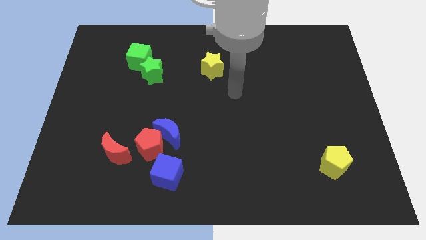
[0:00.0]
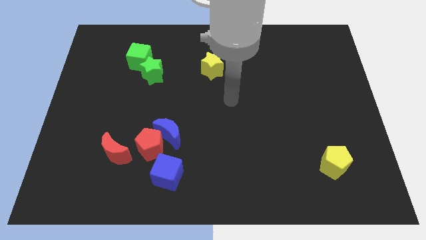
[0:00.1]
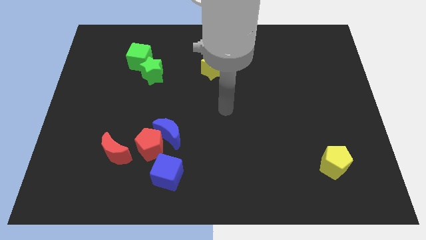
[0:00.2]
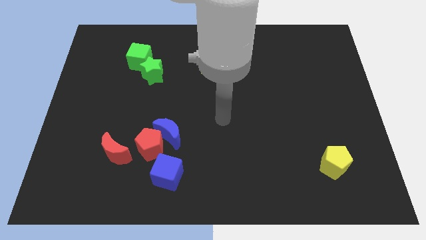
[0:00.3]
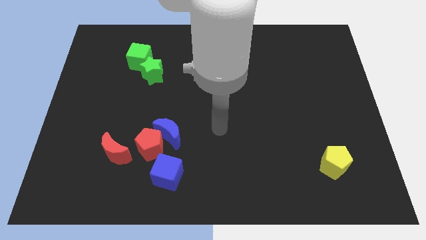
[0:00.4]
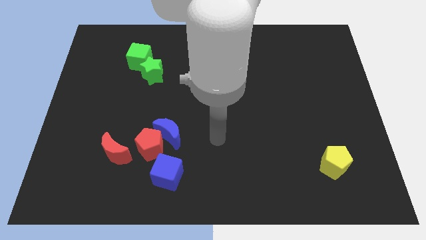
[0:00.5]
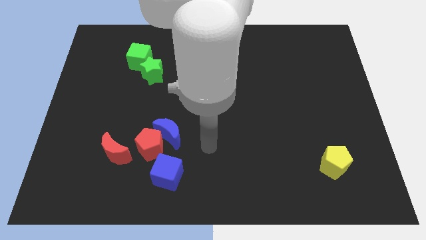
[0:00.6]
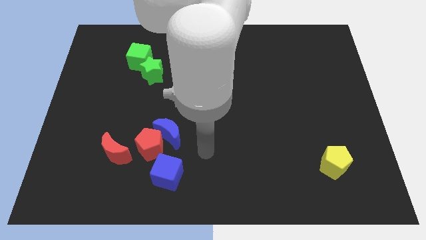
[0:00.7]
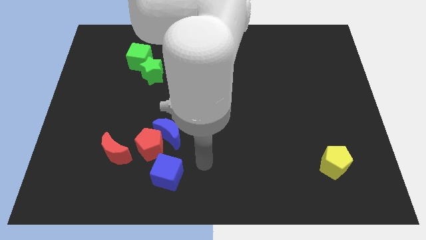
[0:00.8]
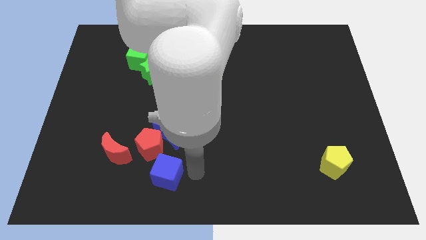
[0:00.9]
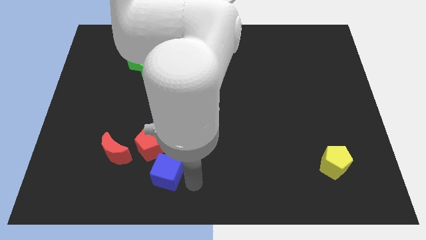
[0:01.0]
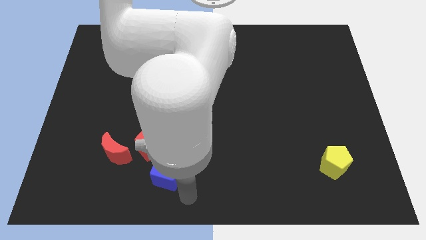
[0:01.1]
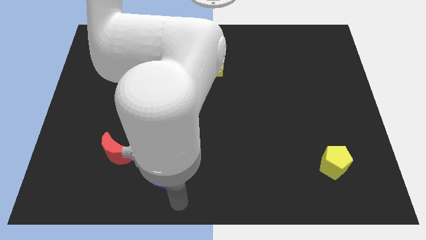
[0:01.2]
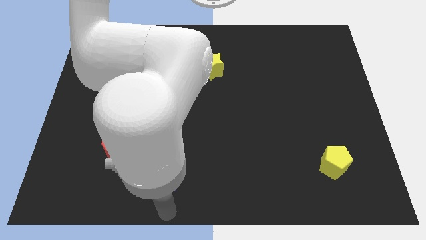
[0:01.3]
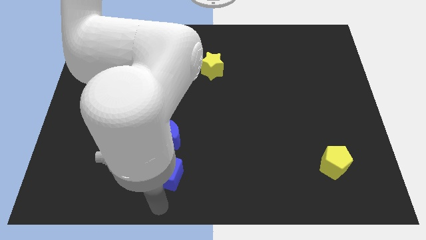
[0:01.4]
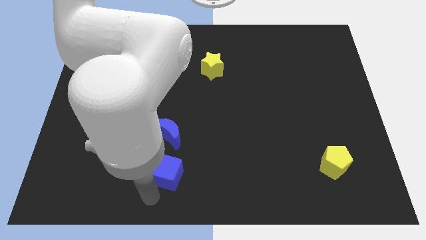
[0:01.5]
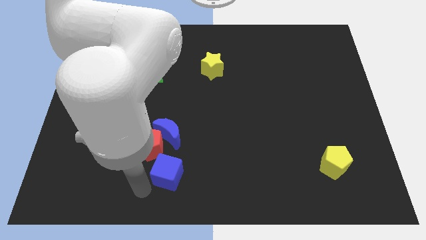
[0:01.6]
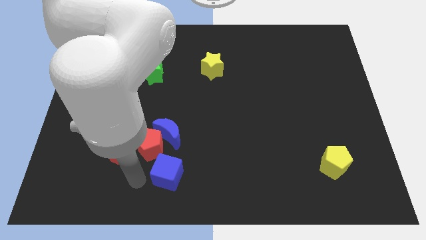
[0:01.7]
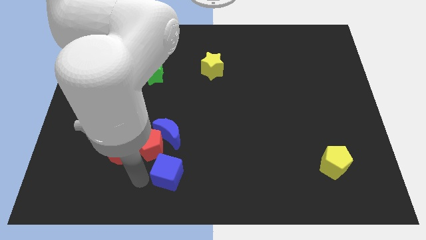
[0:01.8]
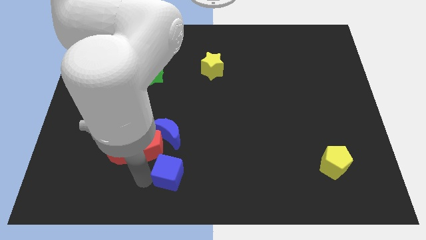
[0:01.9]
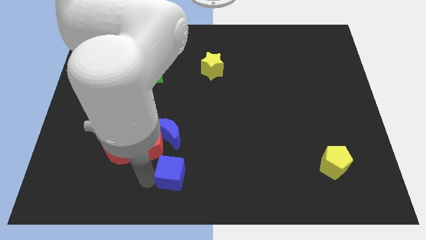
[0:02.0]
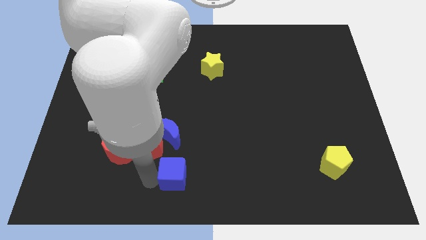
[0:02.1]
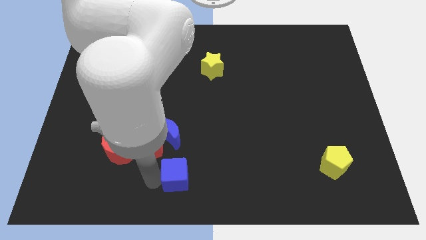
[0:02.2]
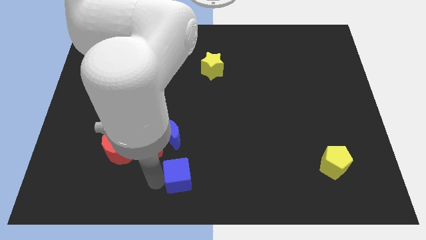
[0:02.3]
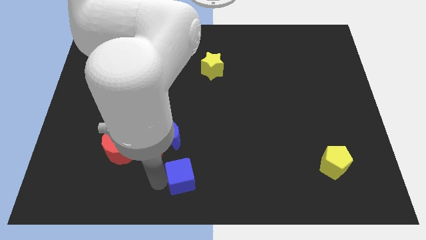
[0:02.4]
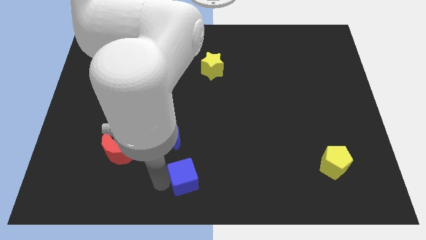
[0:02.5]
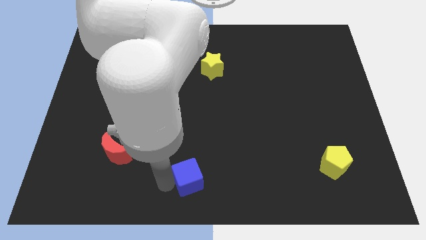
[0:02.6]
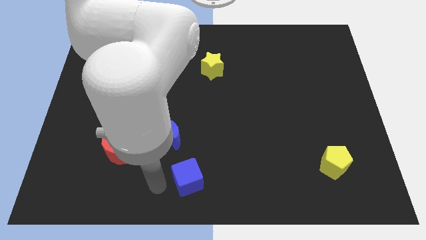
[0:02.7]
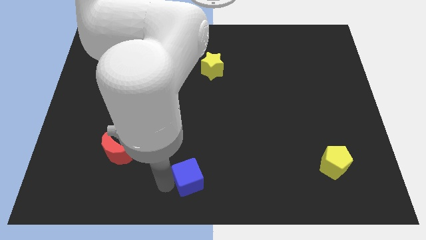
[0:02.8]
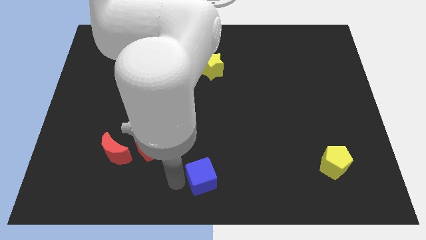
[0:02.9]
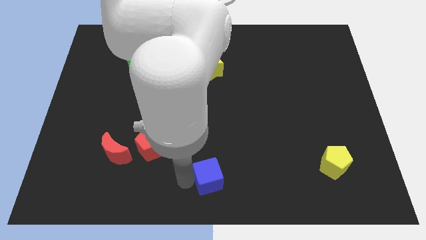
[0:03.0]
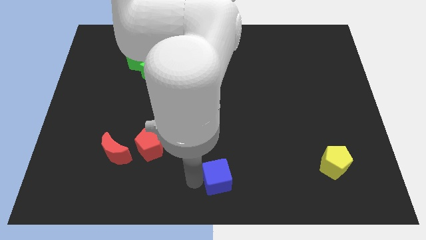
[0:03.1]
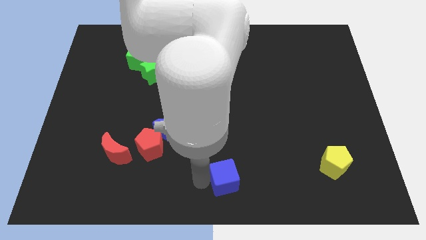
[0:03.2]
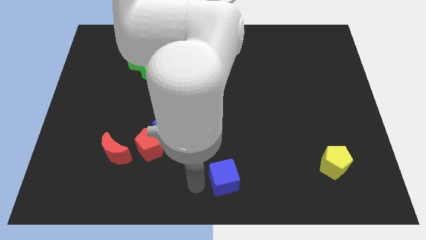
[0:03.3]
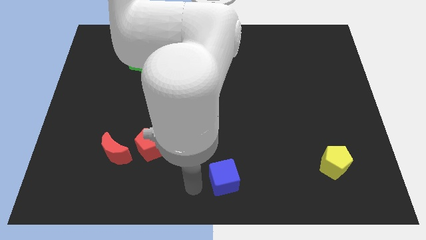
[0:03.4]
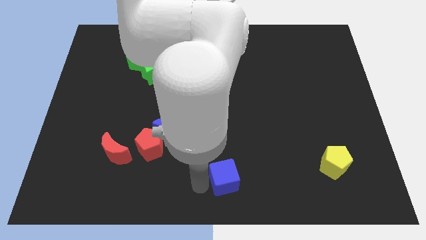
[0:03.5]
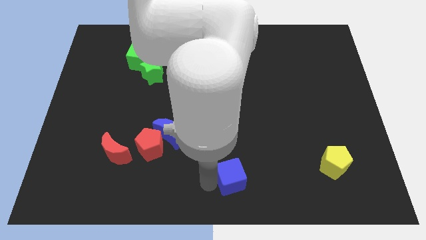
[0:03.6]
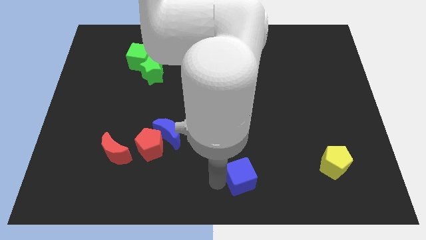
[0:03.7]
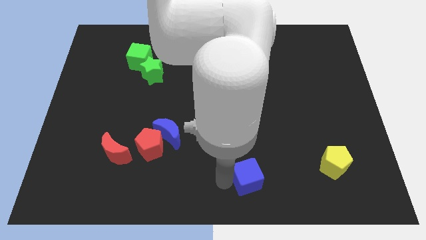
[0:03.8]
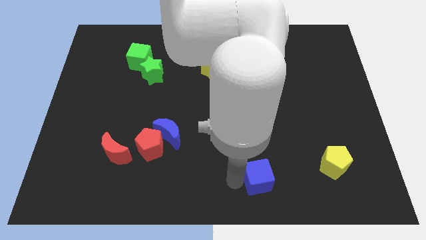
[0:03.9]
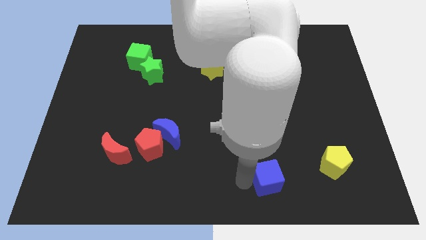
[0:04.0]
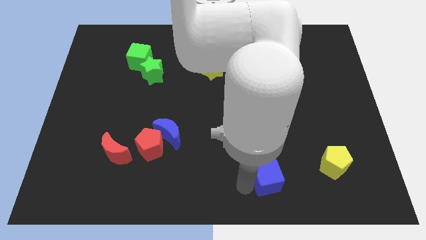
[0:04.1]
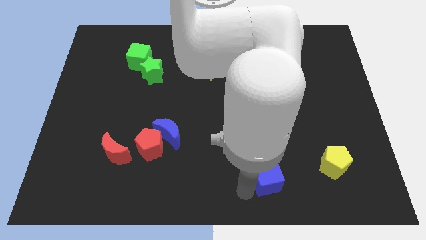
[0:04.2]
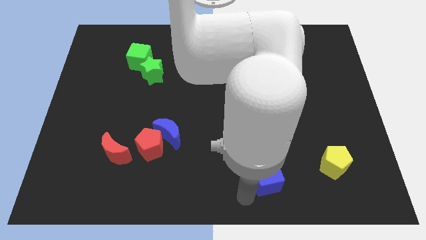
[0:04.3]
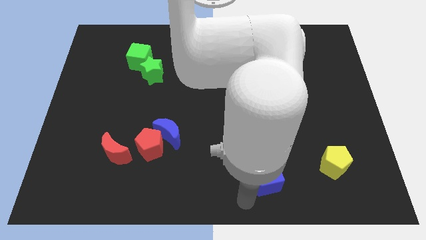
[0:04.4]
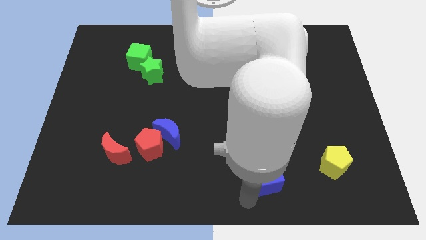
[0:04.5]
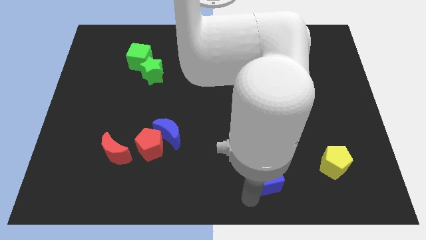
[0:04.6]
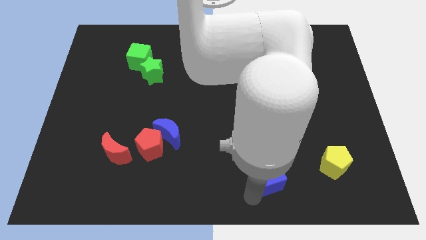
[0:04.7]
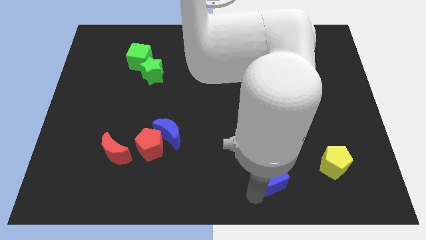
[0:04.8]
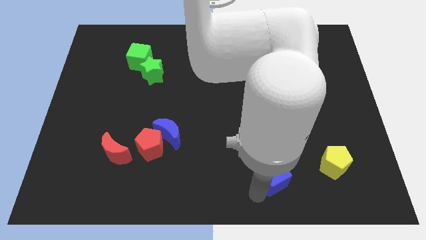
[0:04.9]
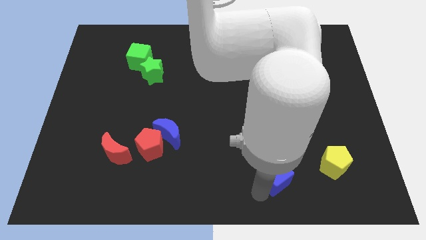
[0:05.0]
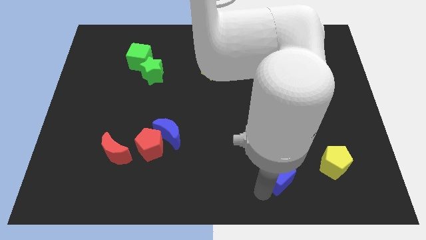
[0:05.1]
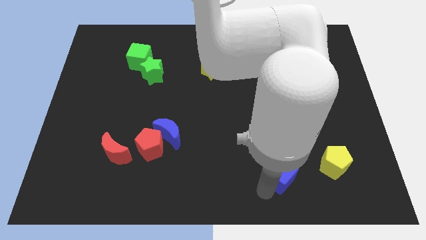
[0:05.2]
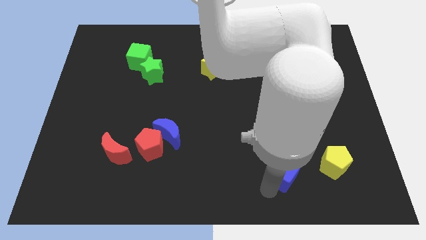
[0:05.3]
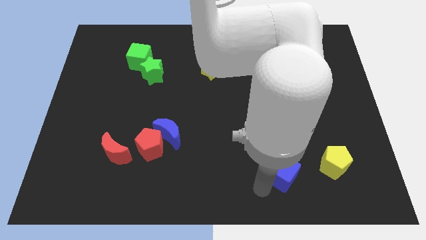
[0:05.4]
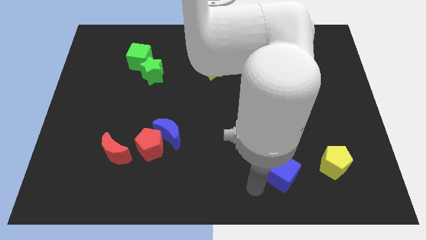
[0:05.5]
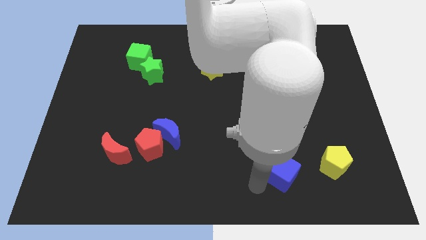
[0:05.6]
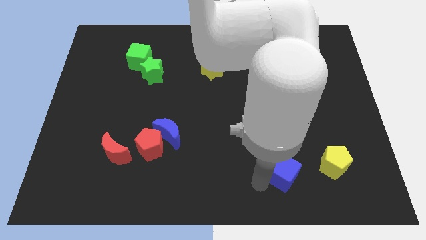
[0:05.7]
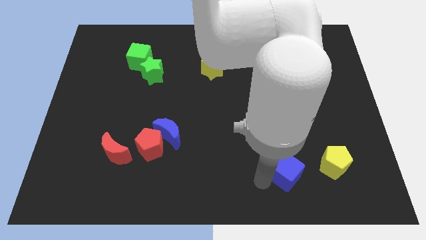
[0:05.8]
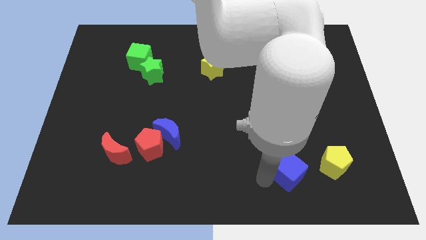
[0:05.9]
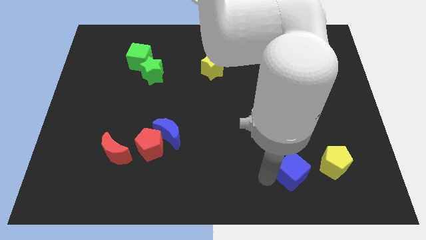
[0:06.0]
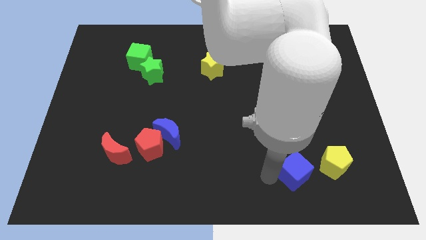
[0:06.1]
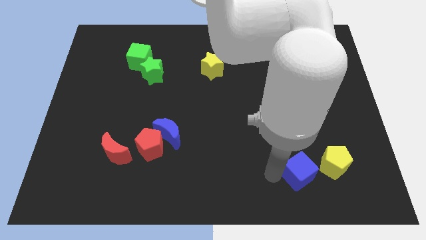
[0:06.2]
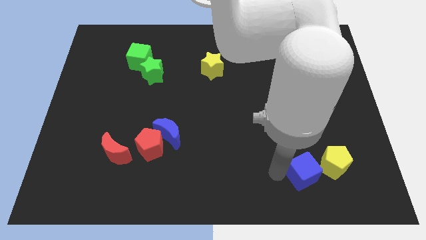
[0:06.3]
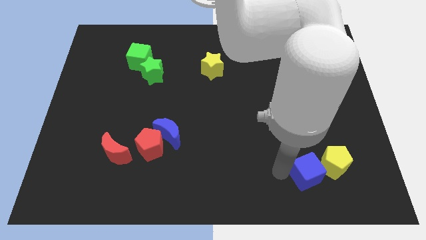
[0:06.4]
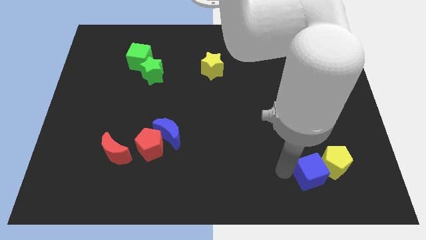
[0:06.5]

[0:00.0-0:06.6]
move the blue cube next to the yellow pentagon
